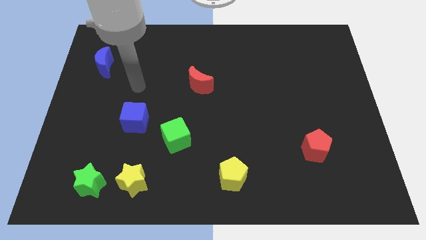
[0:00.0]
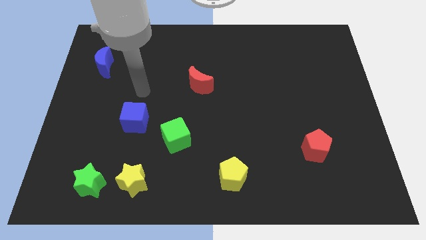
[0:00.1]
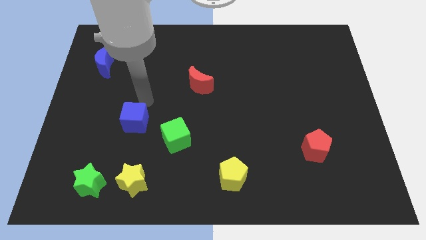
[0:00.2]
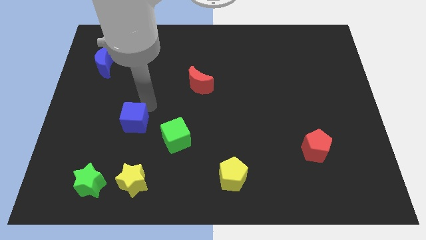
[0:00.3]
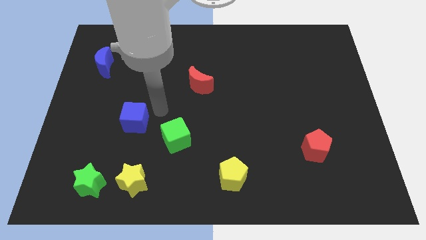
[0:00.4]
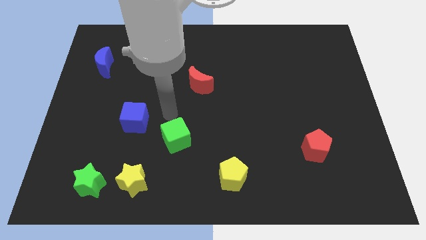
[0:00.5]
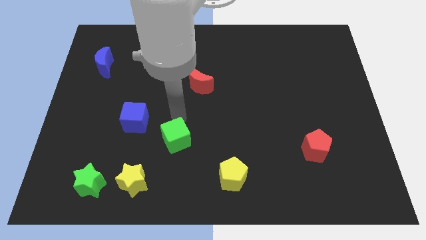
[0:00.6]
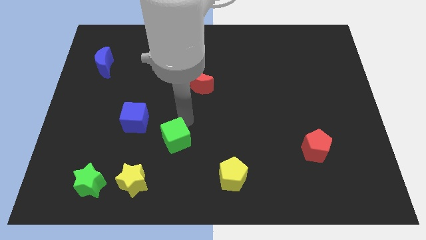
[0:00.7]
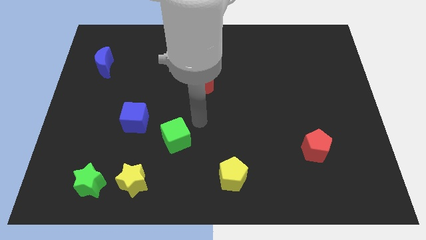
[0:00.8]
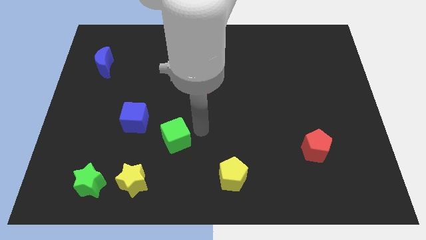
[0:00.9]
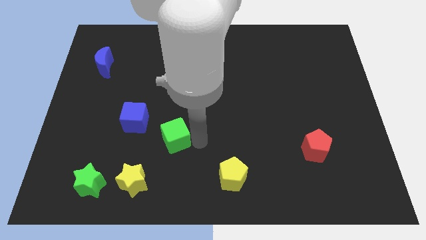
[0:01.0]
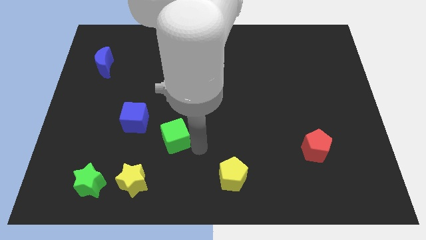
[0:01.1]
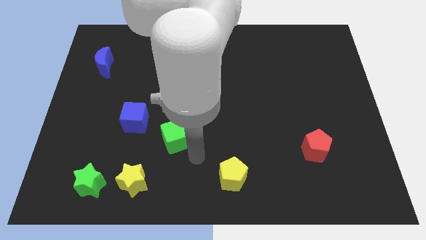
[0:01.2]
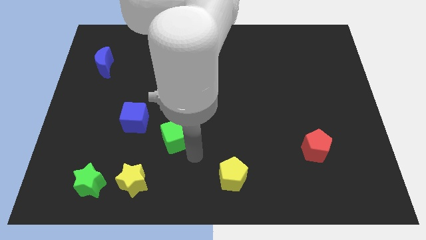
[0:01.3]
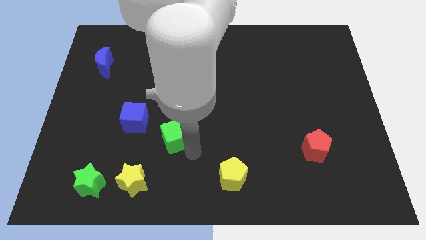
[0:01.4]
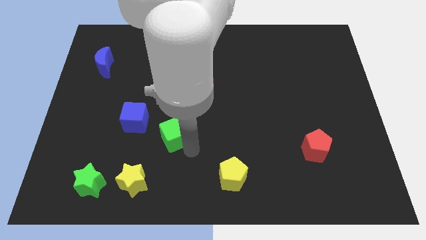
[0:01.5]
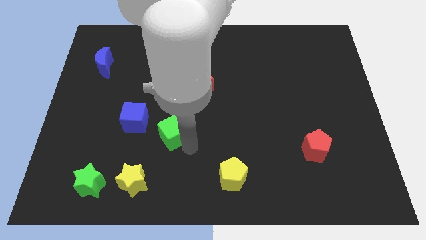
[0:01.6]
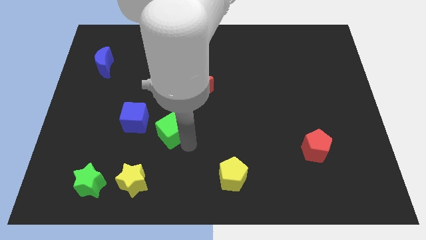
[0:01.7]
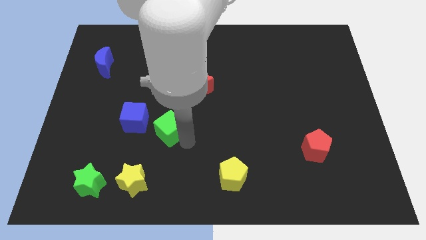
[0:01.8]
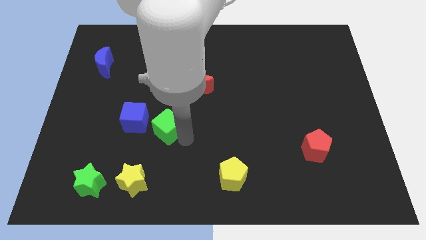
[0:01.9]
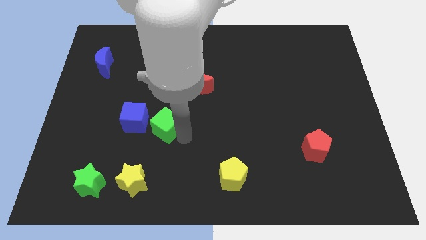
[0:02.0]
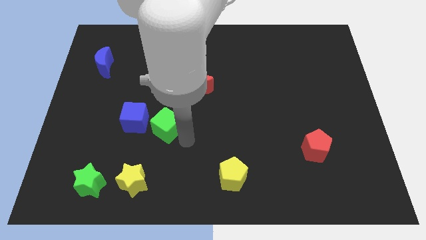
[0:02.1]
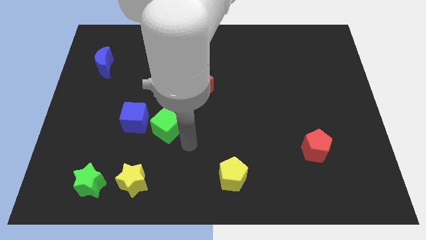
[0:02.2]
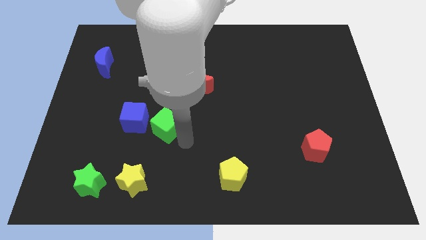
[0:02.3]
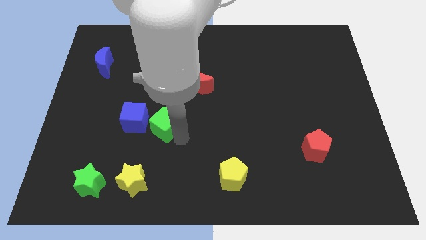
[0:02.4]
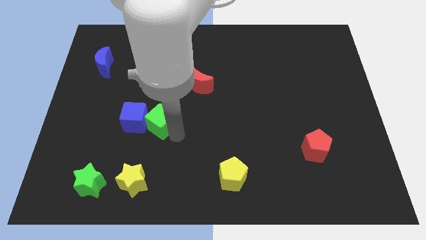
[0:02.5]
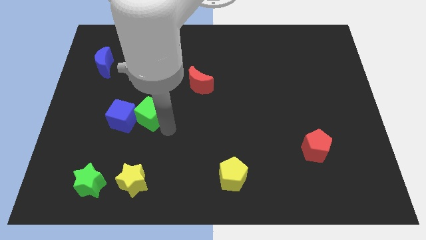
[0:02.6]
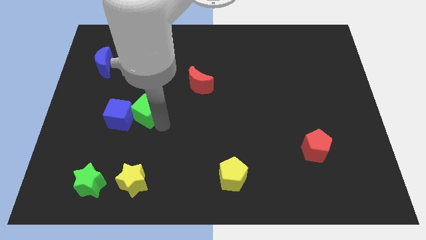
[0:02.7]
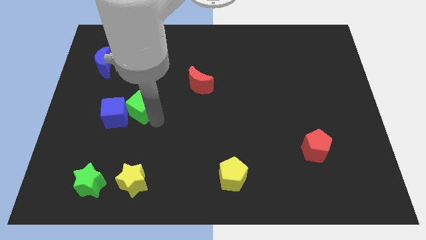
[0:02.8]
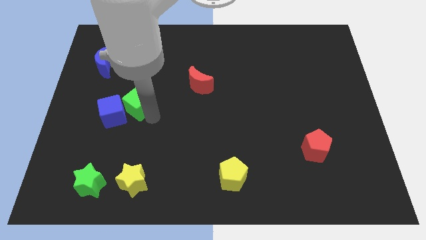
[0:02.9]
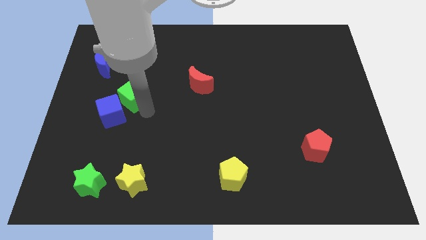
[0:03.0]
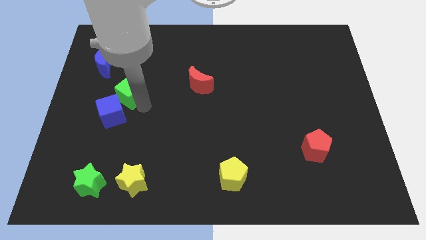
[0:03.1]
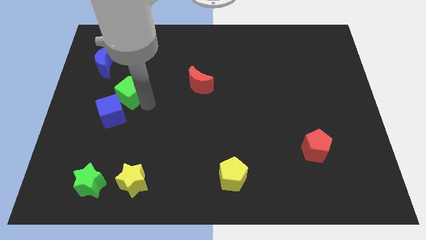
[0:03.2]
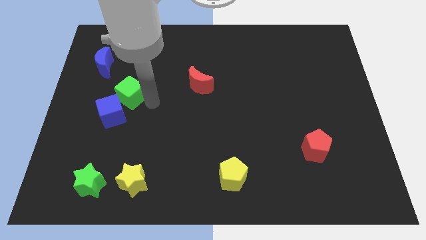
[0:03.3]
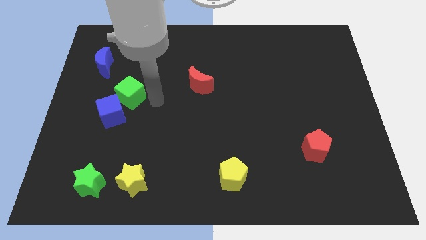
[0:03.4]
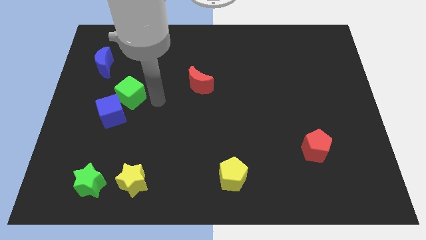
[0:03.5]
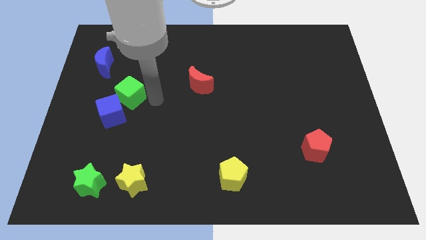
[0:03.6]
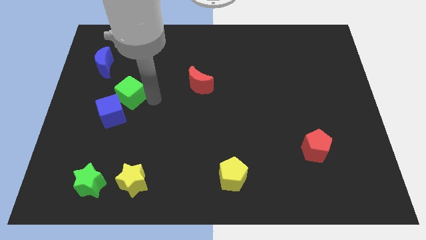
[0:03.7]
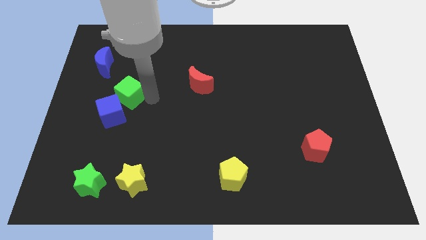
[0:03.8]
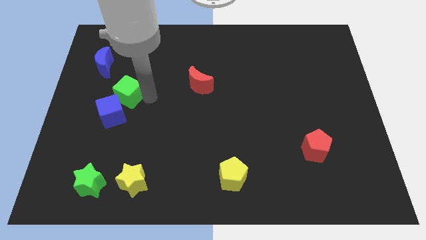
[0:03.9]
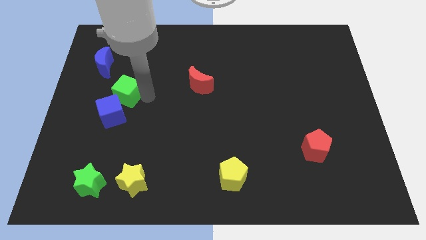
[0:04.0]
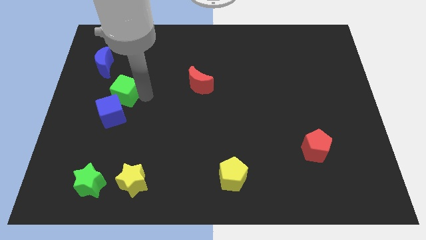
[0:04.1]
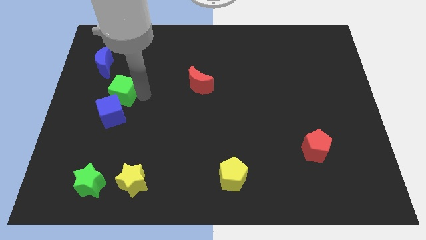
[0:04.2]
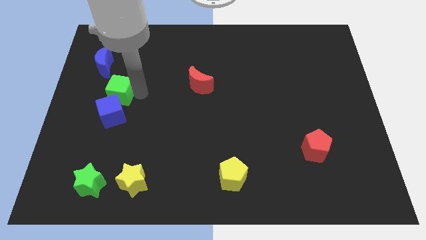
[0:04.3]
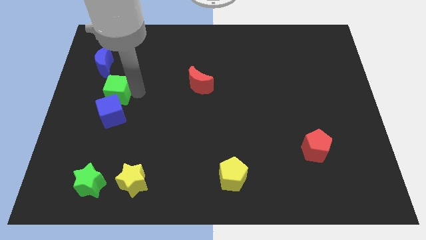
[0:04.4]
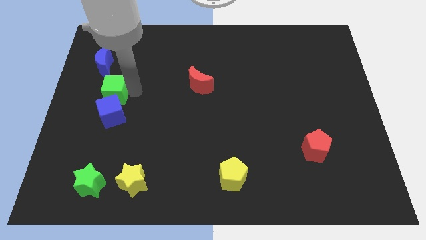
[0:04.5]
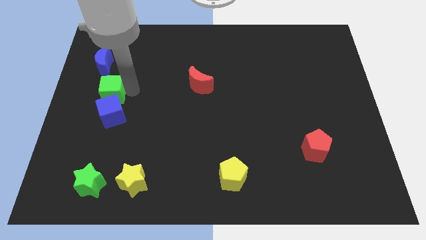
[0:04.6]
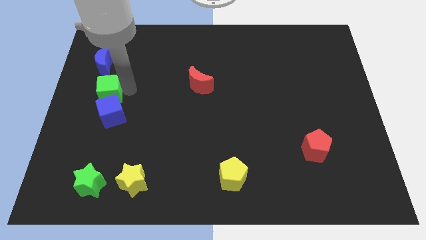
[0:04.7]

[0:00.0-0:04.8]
move the green cube to the left side

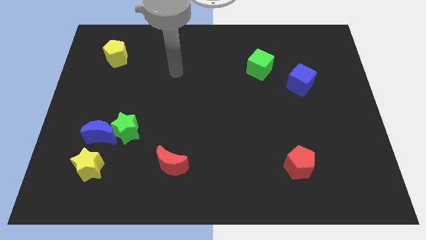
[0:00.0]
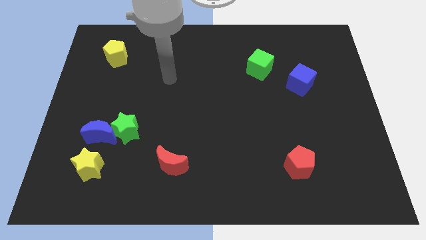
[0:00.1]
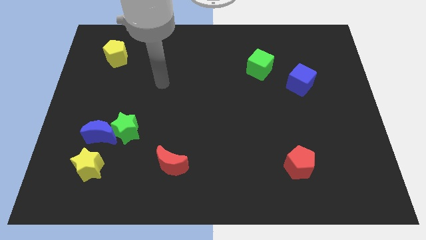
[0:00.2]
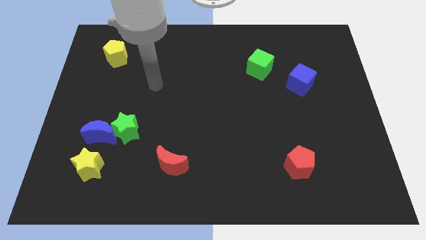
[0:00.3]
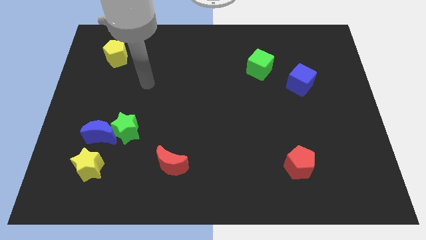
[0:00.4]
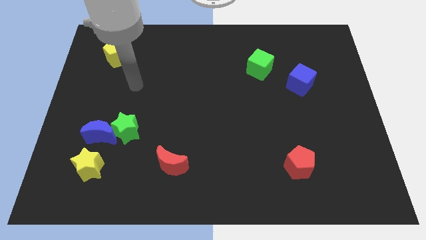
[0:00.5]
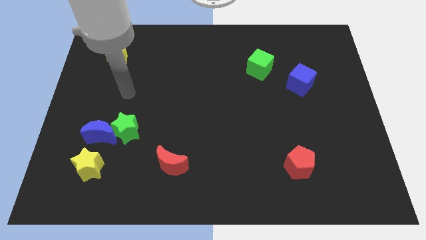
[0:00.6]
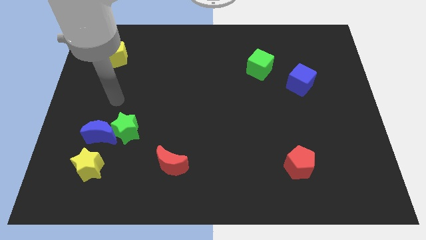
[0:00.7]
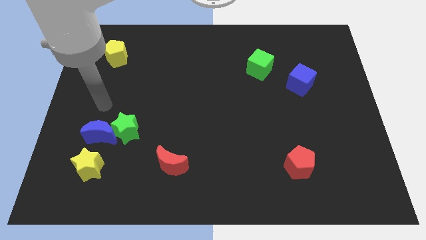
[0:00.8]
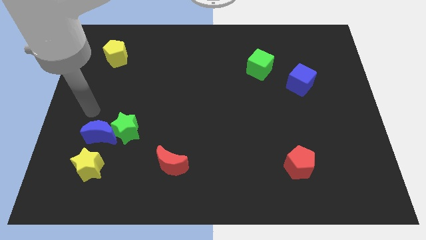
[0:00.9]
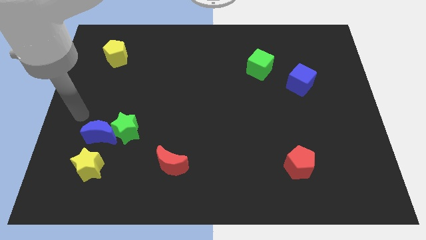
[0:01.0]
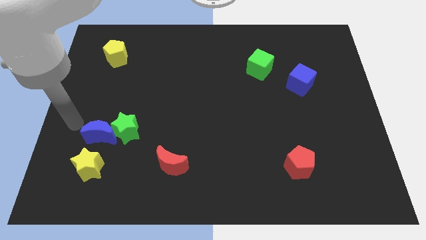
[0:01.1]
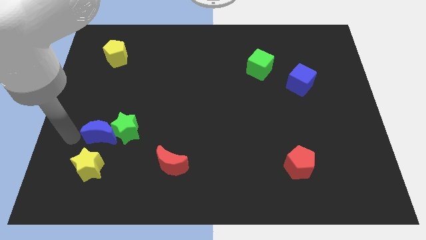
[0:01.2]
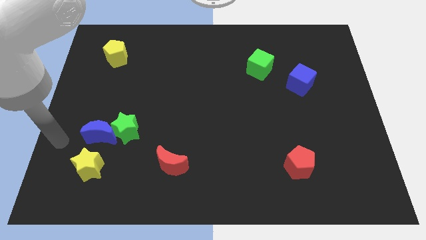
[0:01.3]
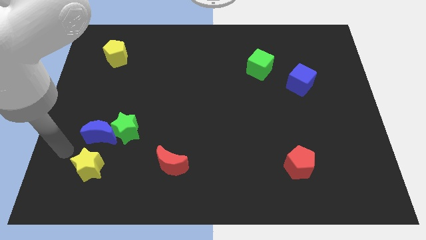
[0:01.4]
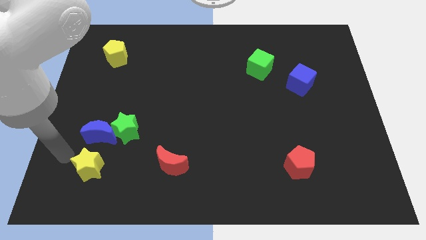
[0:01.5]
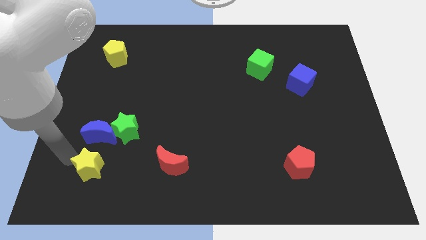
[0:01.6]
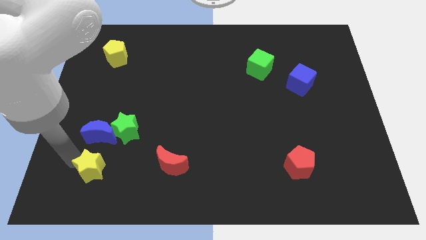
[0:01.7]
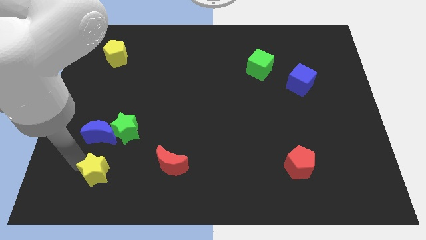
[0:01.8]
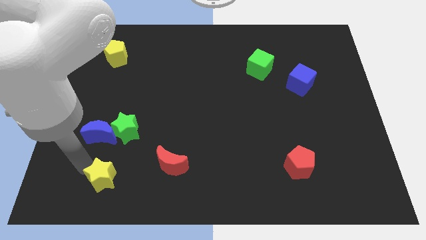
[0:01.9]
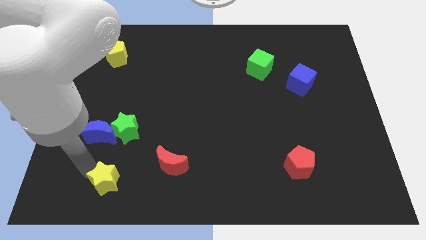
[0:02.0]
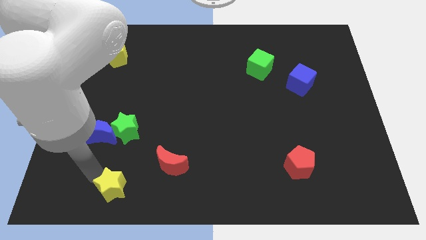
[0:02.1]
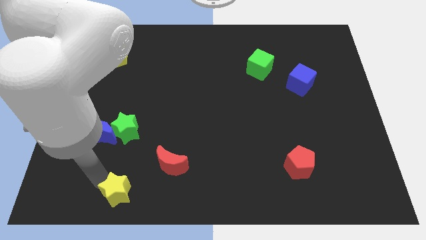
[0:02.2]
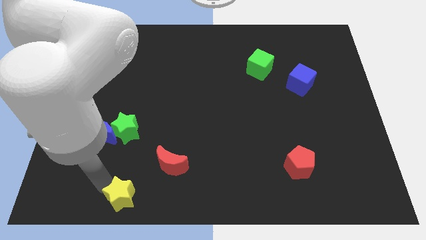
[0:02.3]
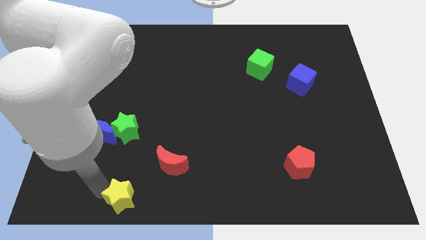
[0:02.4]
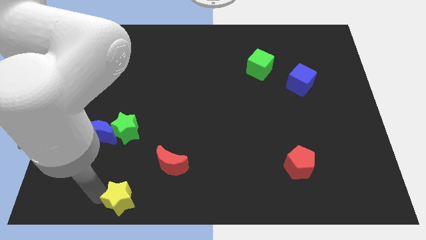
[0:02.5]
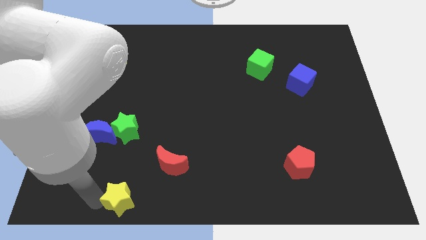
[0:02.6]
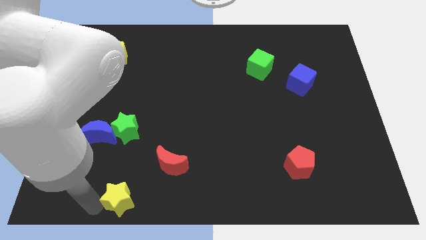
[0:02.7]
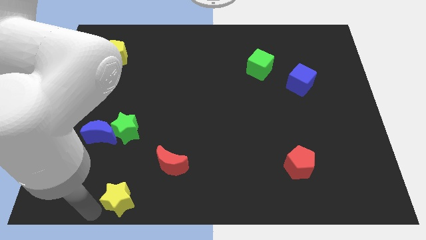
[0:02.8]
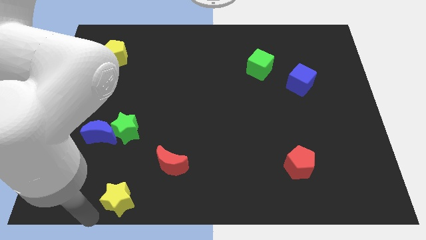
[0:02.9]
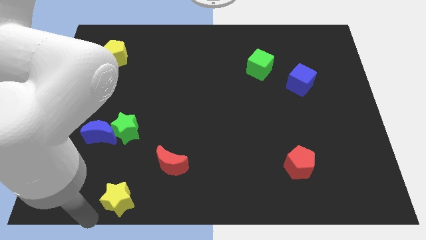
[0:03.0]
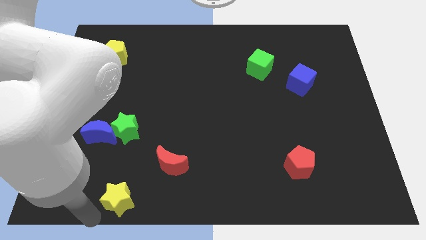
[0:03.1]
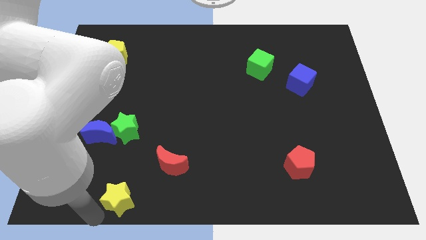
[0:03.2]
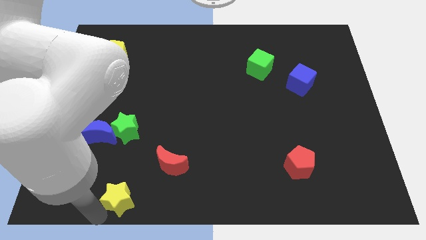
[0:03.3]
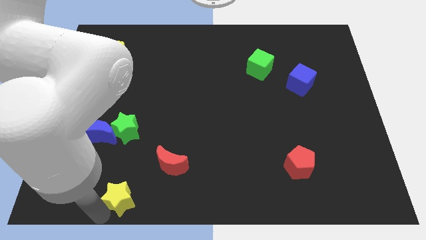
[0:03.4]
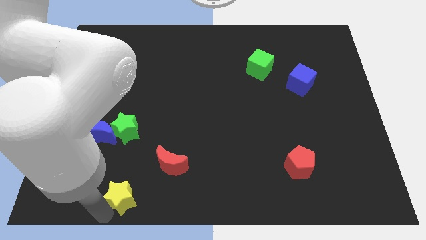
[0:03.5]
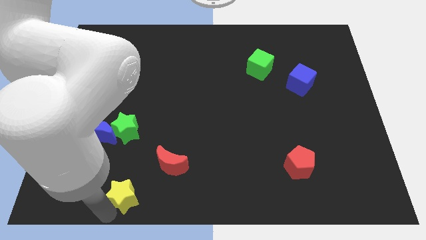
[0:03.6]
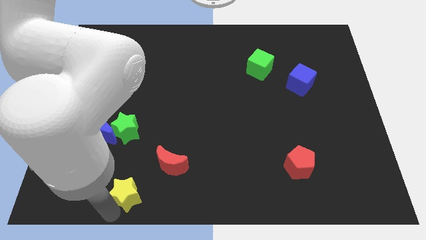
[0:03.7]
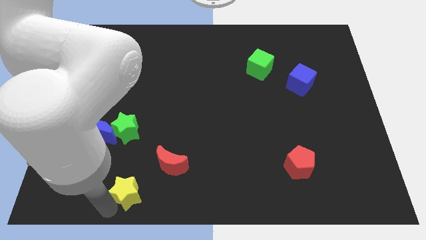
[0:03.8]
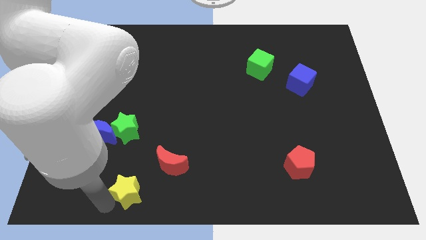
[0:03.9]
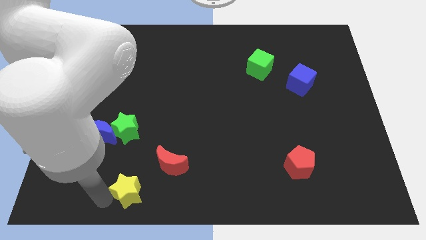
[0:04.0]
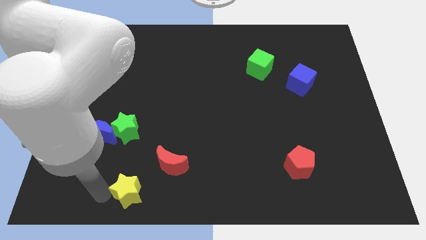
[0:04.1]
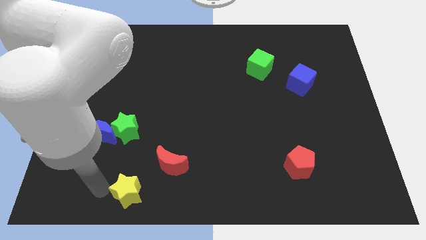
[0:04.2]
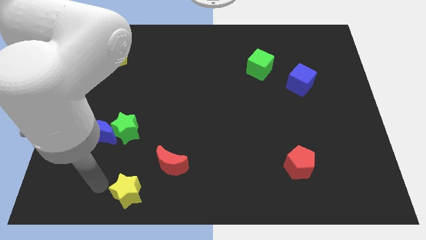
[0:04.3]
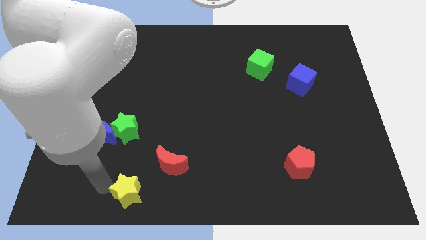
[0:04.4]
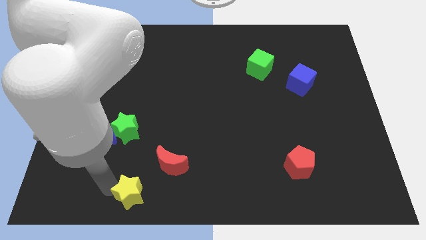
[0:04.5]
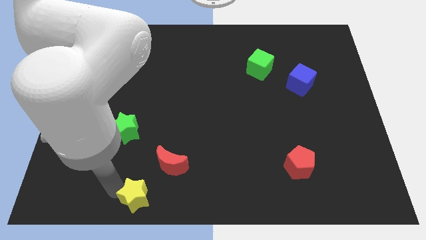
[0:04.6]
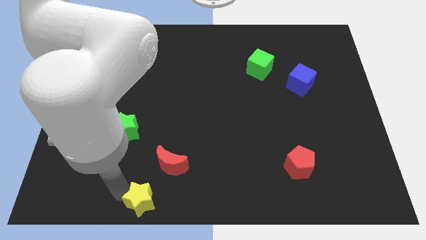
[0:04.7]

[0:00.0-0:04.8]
move the yellow star to the bottom side
